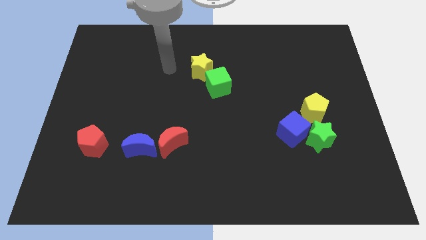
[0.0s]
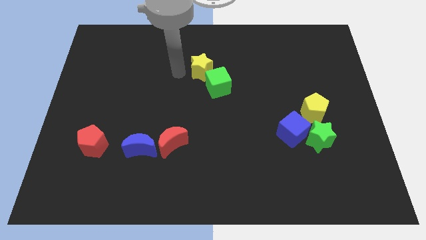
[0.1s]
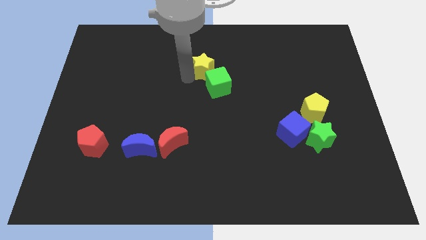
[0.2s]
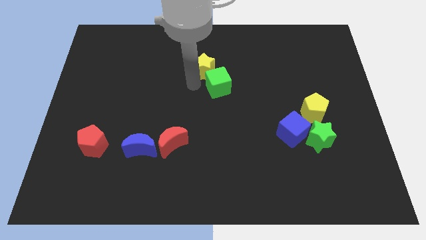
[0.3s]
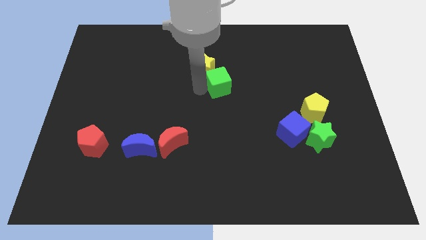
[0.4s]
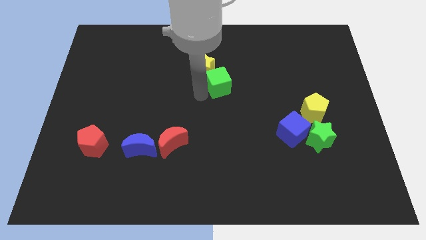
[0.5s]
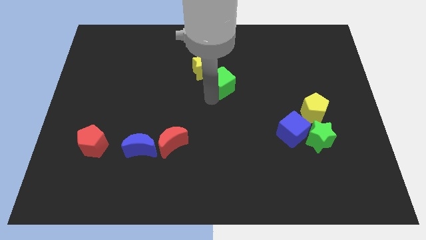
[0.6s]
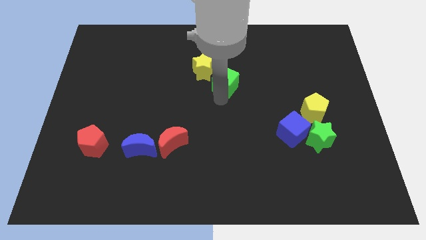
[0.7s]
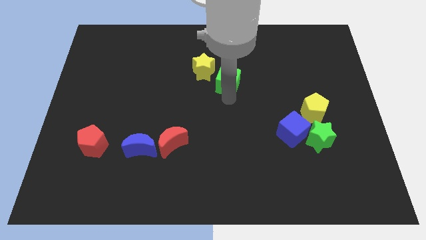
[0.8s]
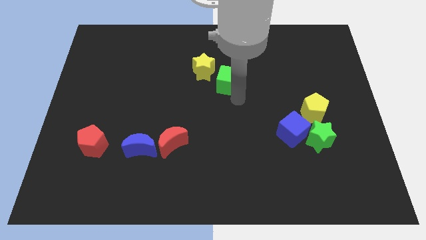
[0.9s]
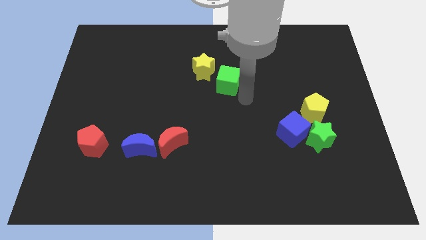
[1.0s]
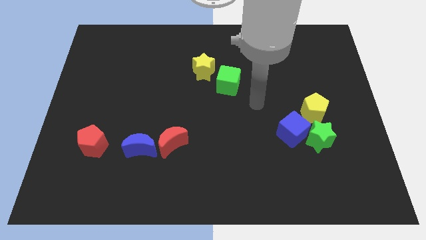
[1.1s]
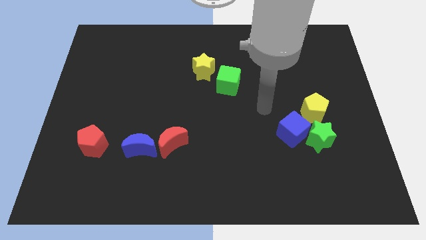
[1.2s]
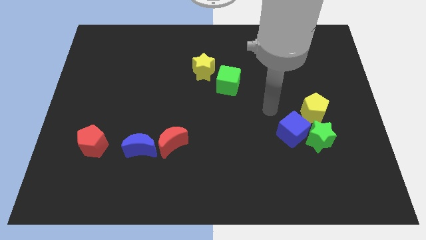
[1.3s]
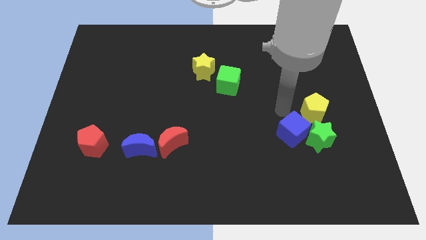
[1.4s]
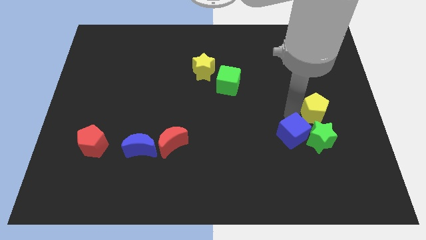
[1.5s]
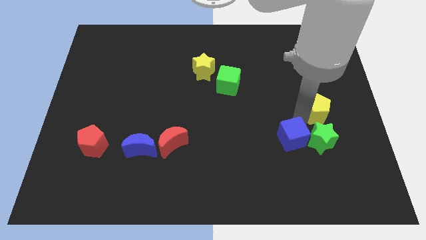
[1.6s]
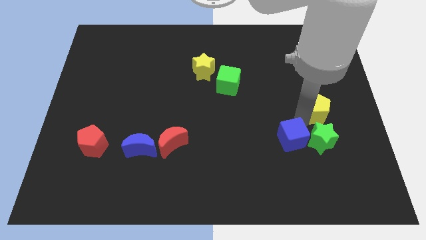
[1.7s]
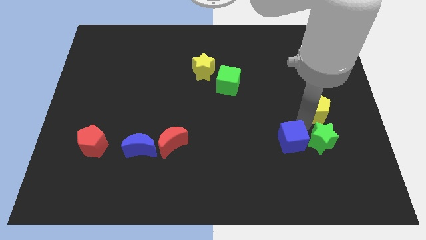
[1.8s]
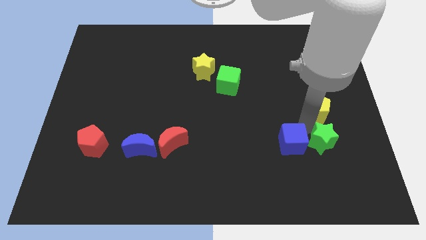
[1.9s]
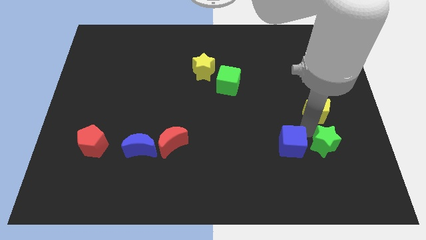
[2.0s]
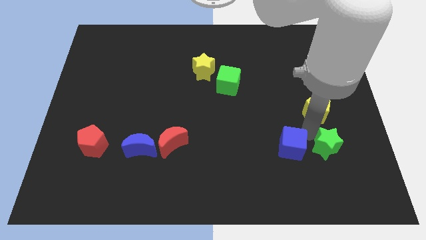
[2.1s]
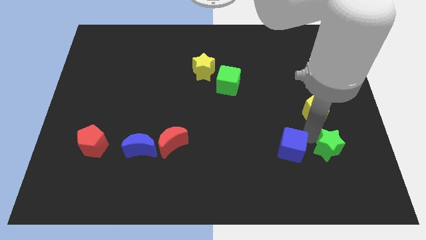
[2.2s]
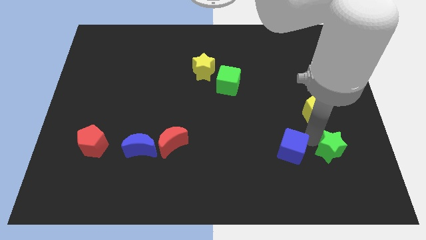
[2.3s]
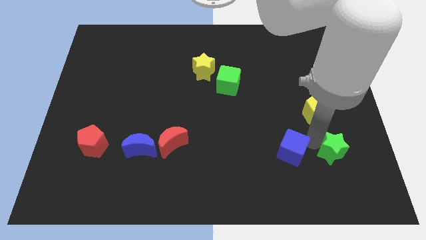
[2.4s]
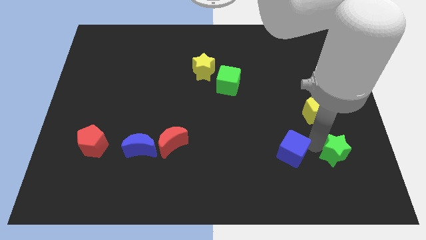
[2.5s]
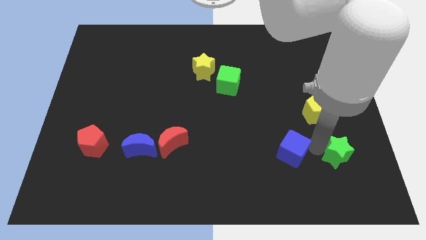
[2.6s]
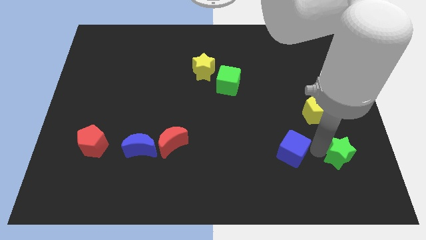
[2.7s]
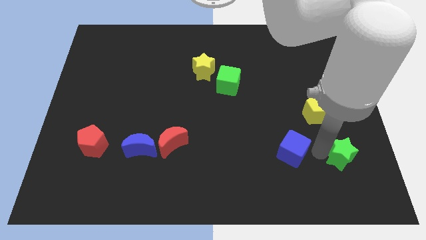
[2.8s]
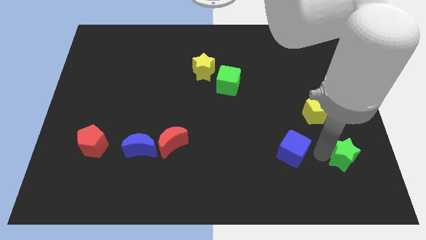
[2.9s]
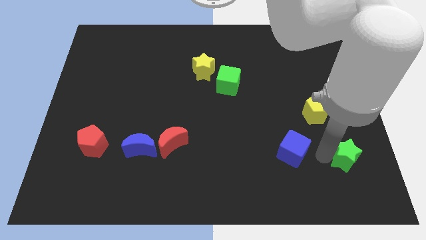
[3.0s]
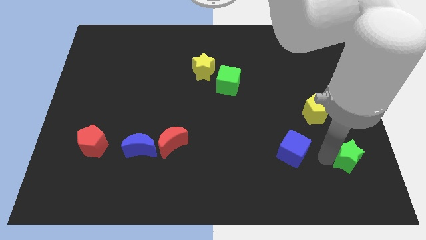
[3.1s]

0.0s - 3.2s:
separate the green star from the blue cube and yellow pentagon

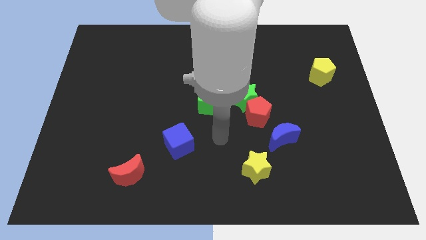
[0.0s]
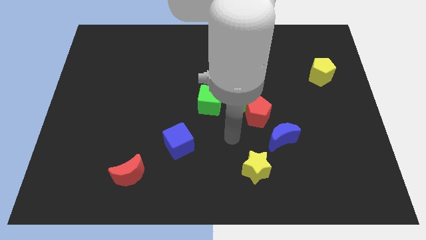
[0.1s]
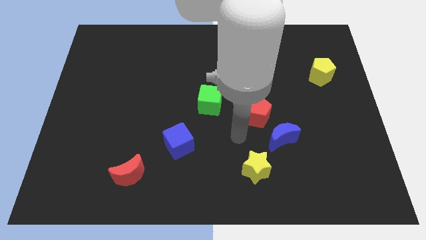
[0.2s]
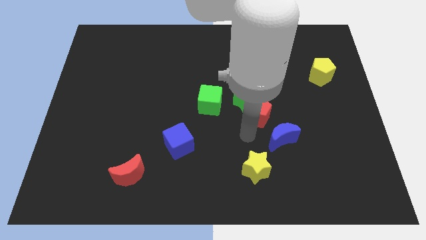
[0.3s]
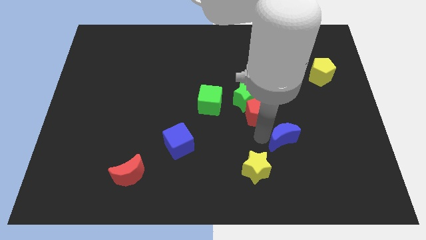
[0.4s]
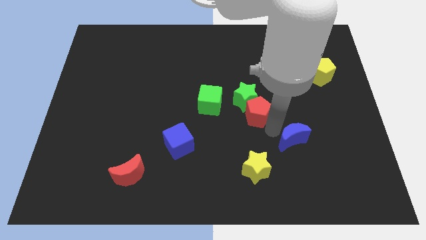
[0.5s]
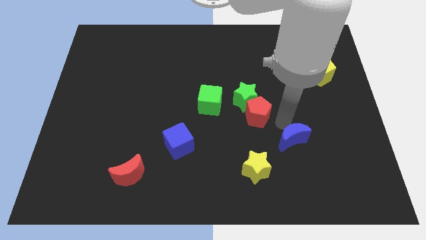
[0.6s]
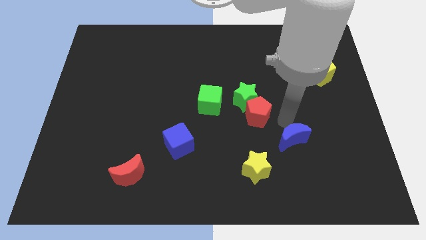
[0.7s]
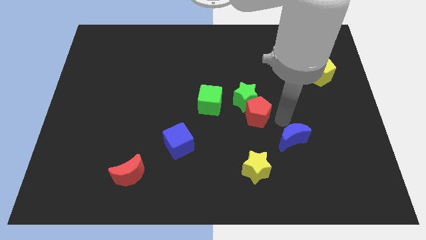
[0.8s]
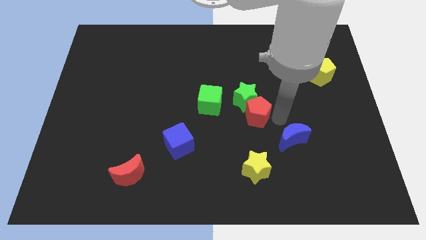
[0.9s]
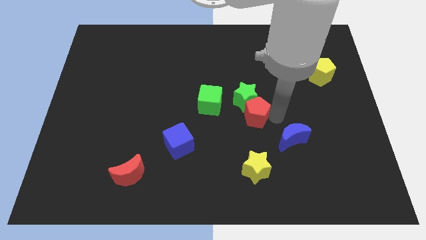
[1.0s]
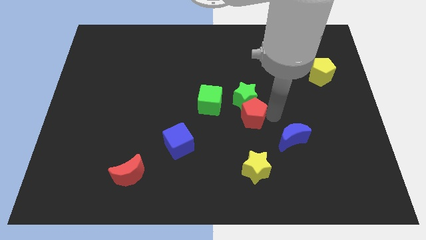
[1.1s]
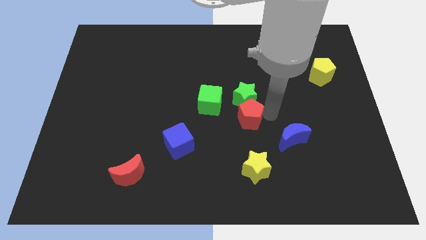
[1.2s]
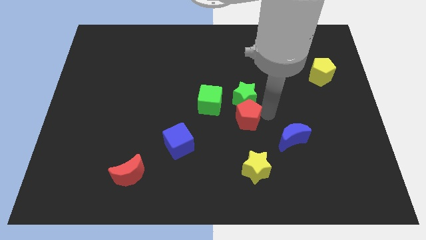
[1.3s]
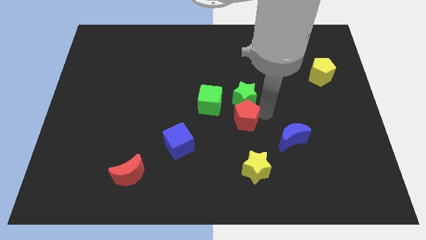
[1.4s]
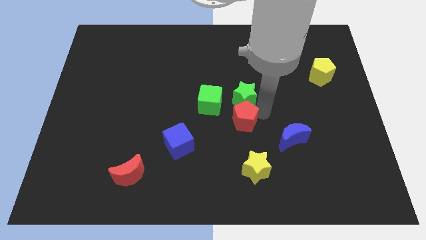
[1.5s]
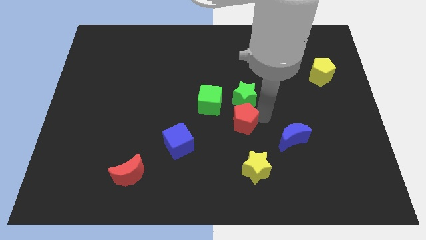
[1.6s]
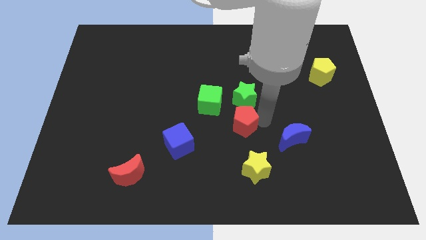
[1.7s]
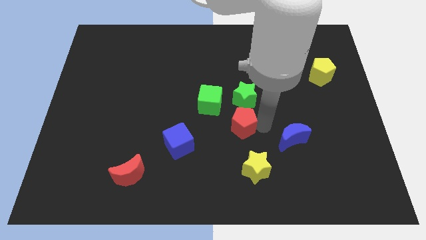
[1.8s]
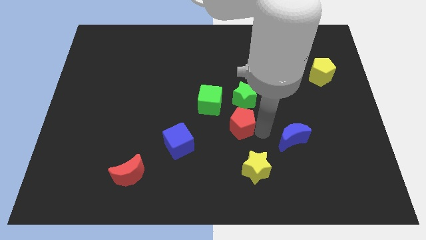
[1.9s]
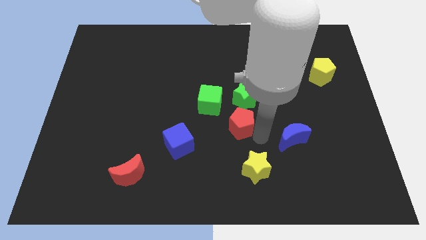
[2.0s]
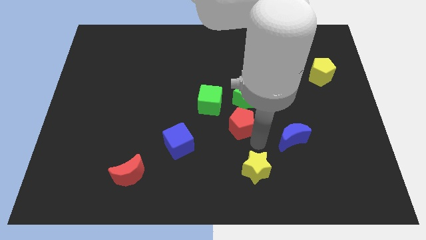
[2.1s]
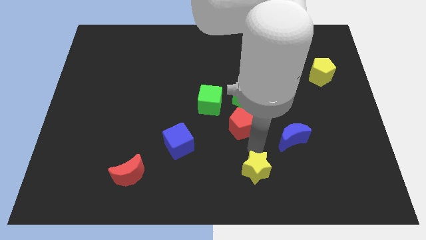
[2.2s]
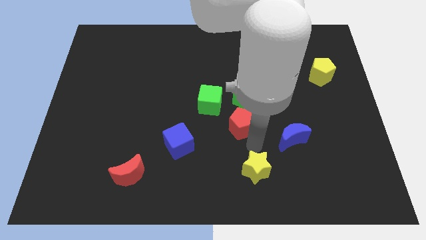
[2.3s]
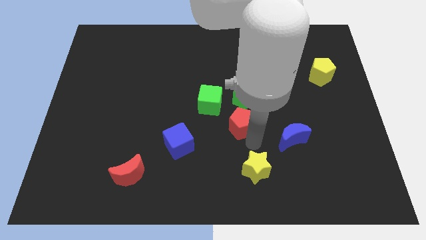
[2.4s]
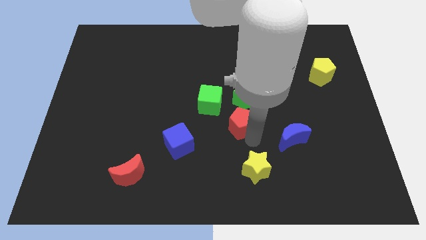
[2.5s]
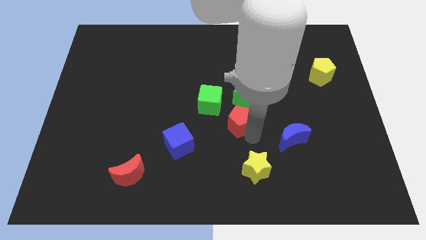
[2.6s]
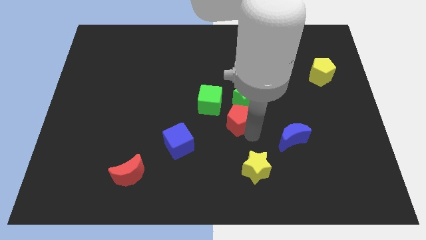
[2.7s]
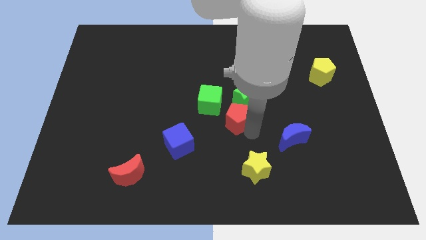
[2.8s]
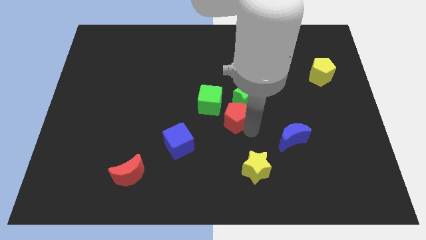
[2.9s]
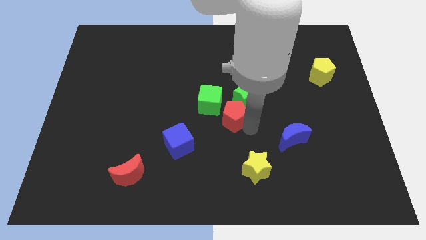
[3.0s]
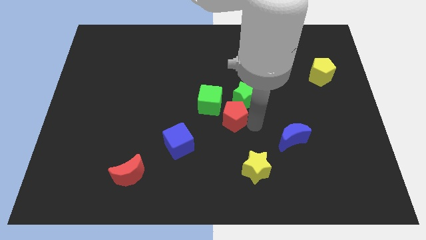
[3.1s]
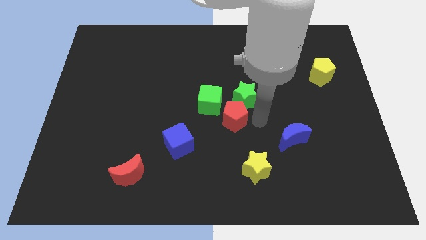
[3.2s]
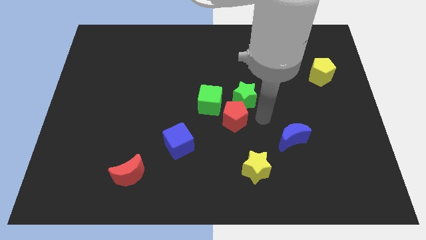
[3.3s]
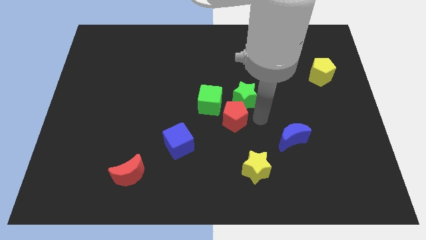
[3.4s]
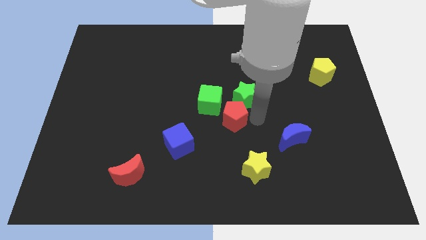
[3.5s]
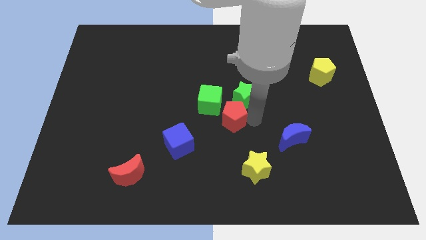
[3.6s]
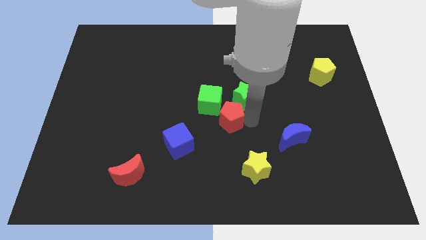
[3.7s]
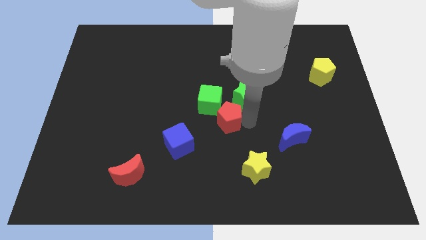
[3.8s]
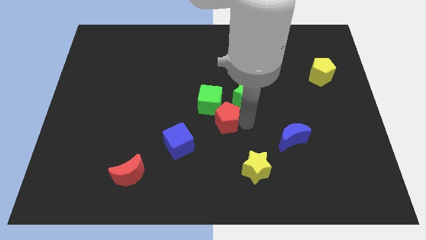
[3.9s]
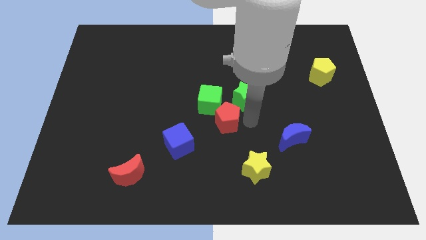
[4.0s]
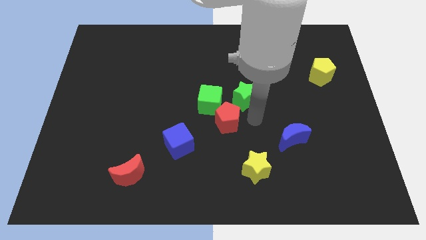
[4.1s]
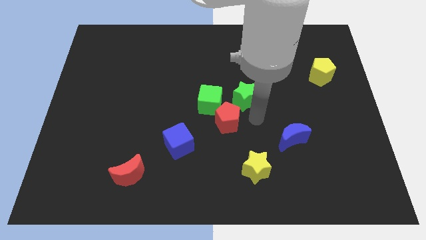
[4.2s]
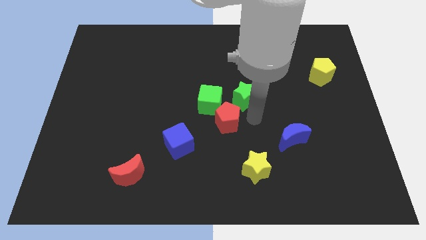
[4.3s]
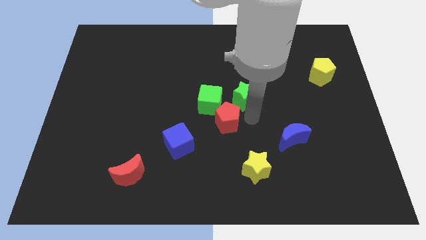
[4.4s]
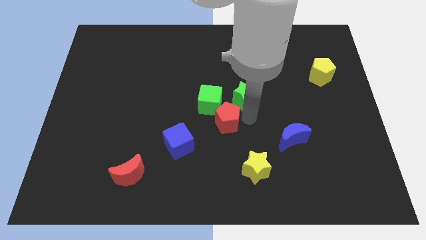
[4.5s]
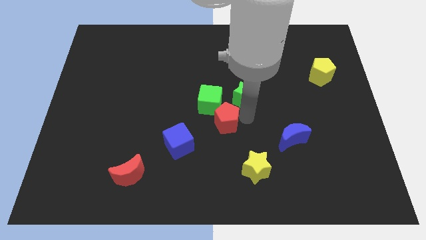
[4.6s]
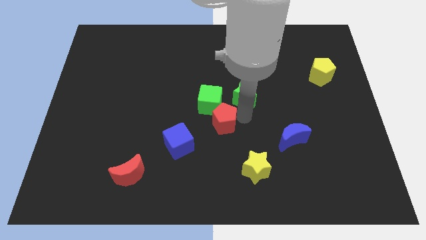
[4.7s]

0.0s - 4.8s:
move the red pentagon away from the green star and blue moon

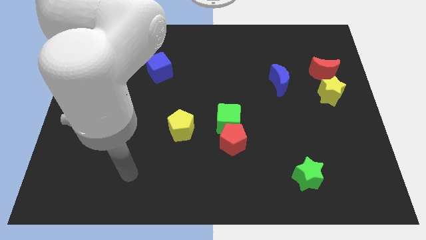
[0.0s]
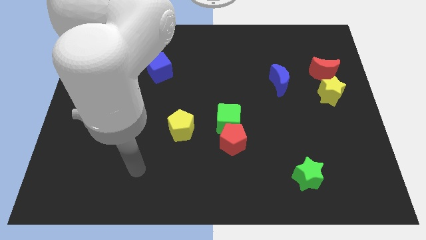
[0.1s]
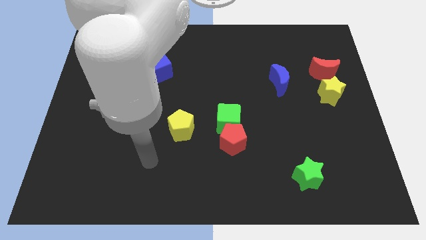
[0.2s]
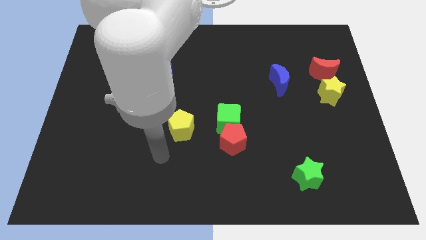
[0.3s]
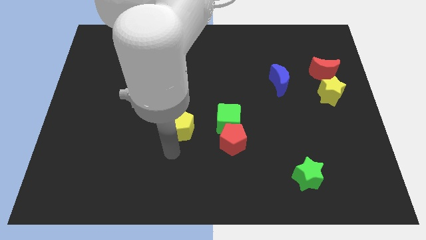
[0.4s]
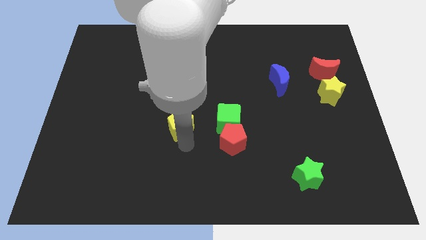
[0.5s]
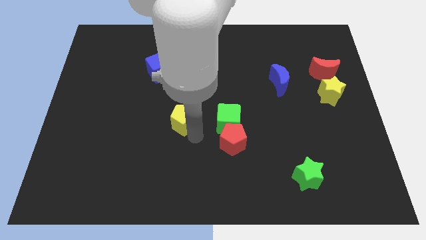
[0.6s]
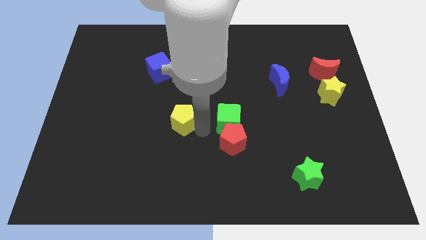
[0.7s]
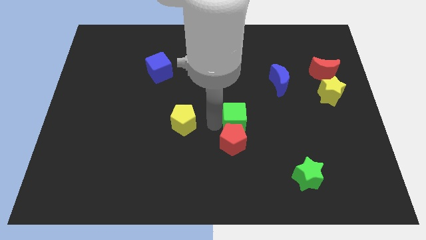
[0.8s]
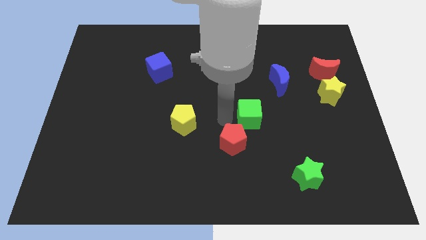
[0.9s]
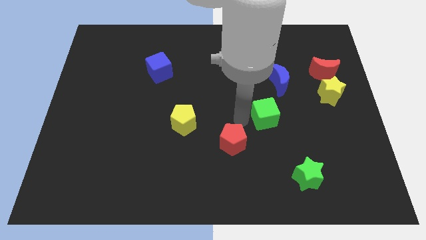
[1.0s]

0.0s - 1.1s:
separate the red pentagon from the green cube

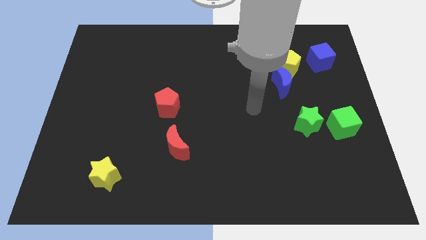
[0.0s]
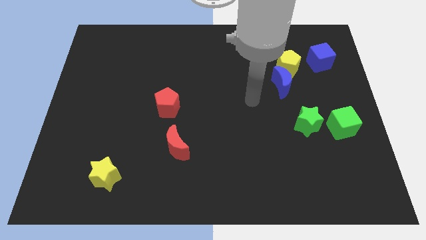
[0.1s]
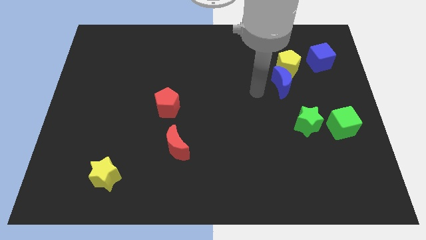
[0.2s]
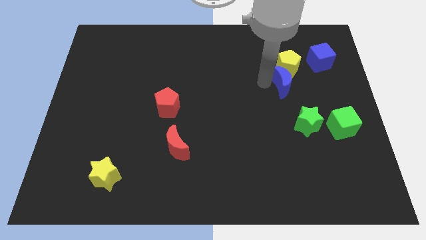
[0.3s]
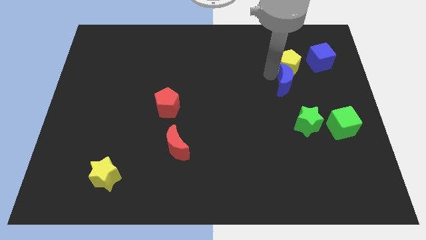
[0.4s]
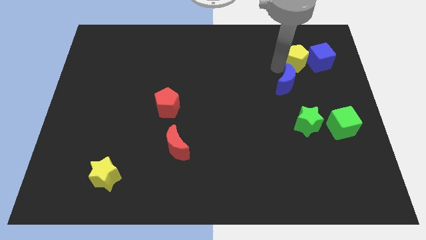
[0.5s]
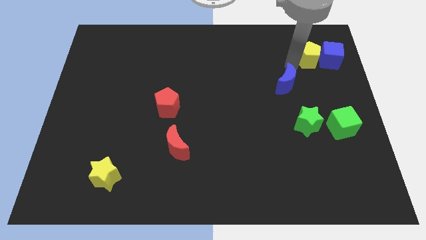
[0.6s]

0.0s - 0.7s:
pull the blue moon apart from the yellow pentagon
